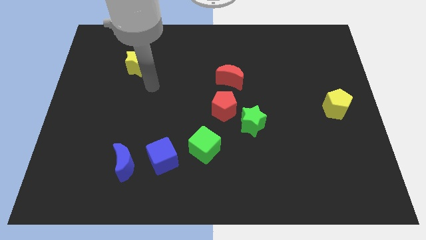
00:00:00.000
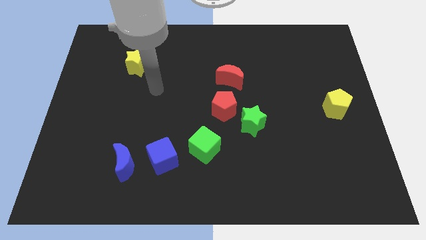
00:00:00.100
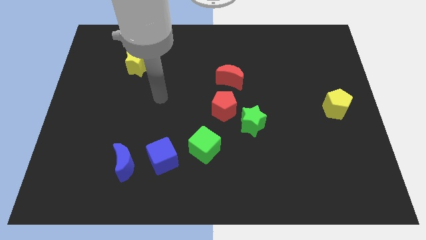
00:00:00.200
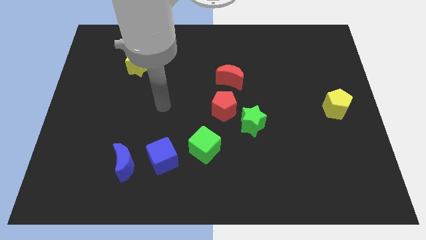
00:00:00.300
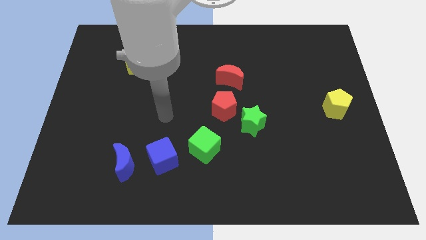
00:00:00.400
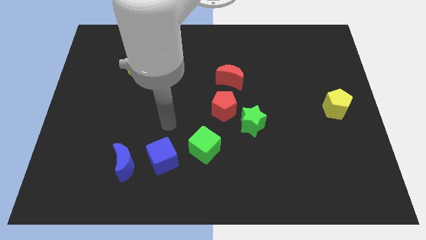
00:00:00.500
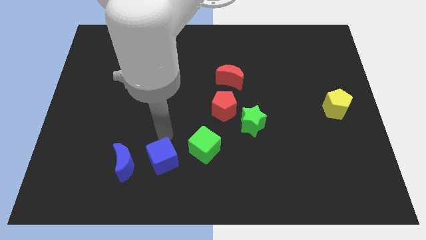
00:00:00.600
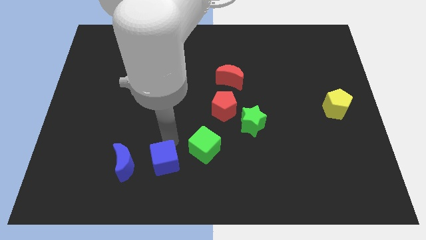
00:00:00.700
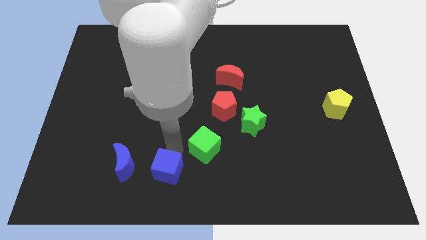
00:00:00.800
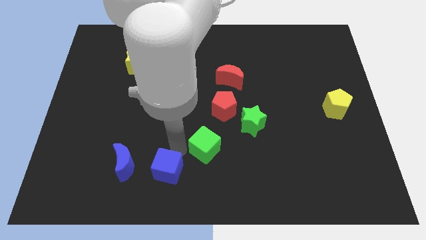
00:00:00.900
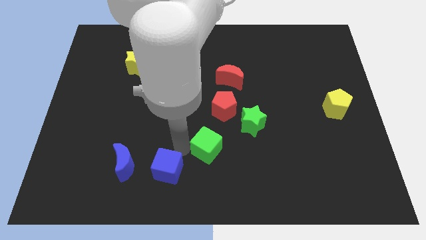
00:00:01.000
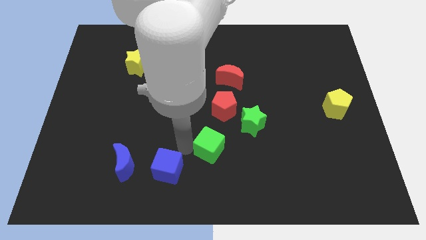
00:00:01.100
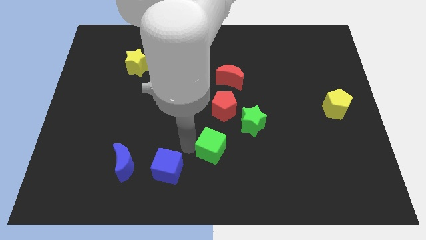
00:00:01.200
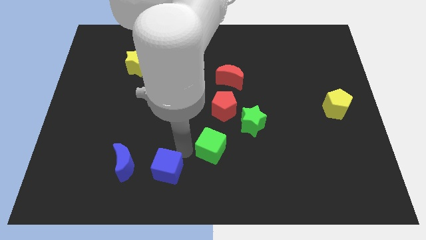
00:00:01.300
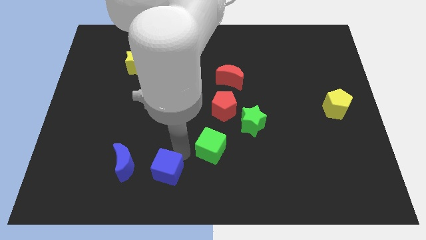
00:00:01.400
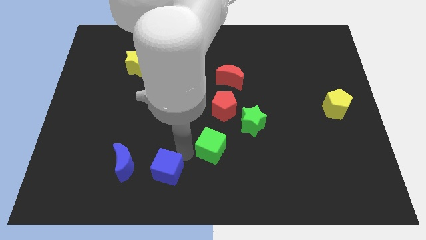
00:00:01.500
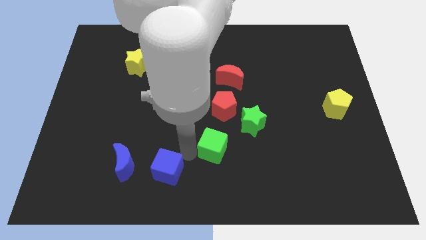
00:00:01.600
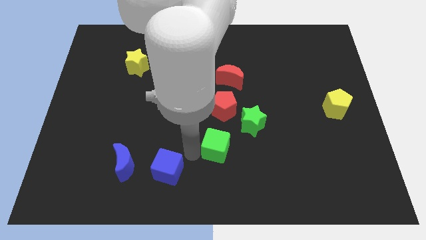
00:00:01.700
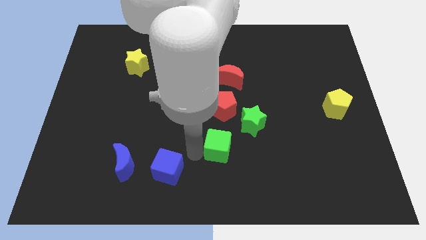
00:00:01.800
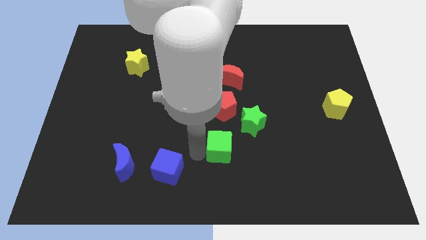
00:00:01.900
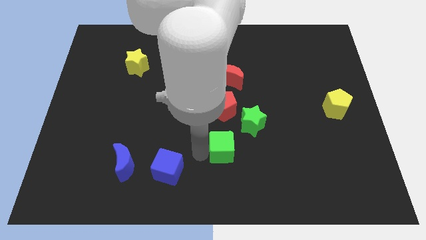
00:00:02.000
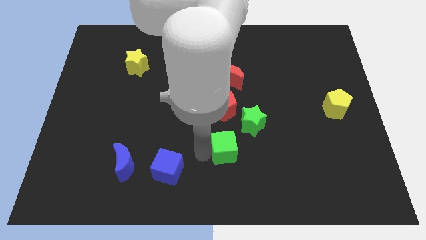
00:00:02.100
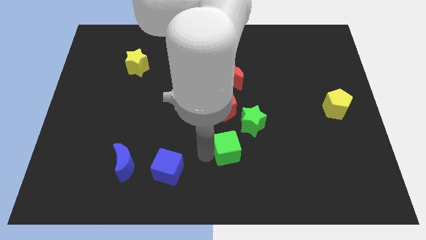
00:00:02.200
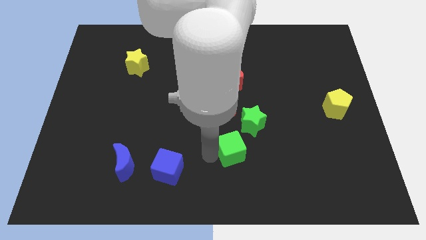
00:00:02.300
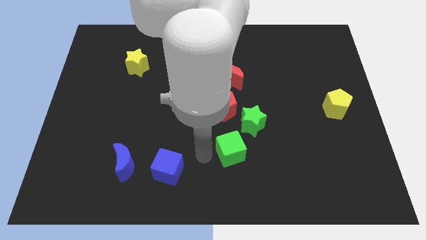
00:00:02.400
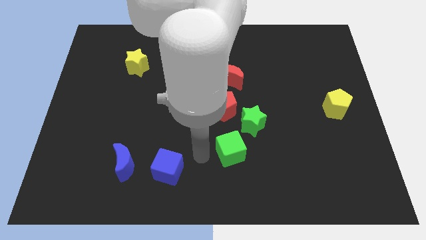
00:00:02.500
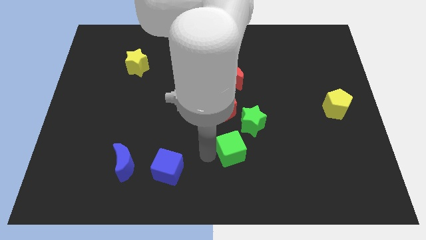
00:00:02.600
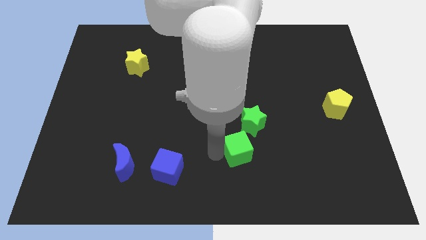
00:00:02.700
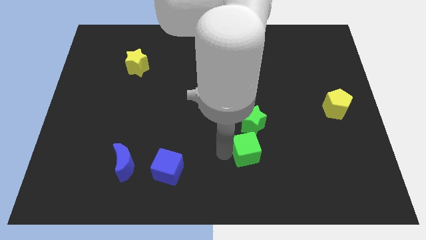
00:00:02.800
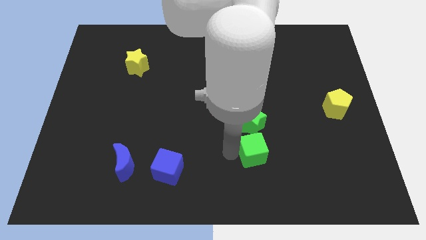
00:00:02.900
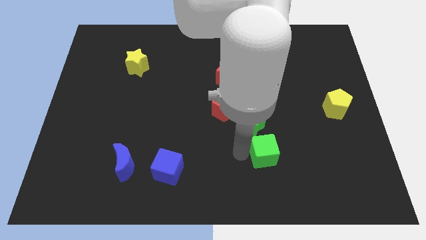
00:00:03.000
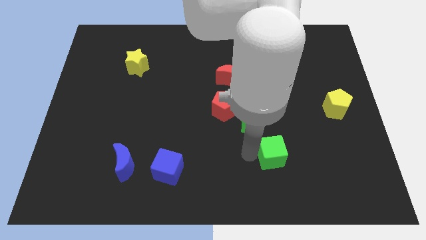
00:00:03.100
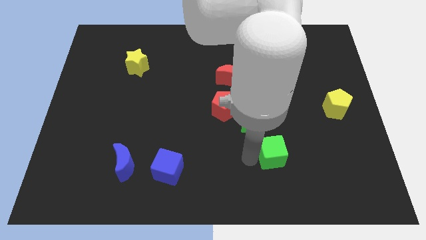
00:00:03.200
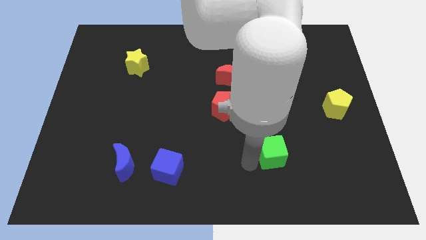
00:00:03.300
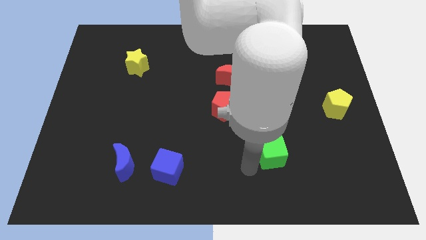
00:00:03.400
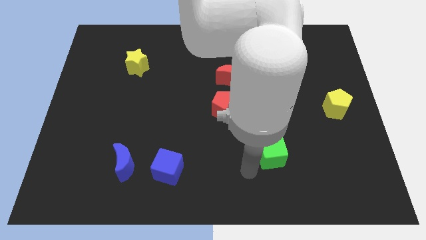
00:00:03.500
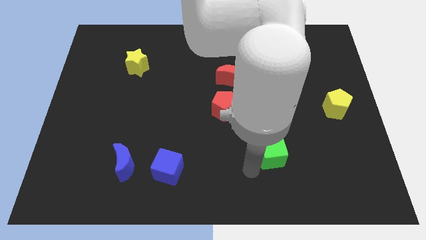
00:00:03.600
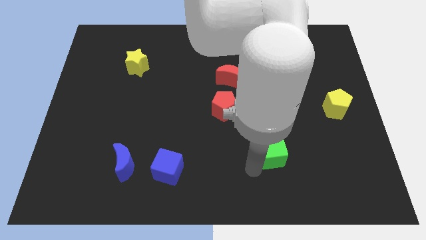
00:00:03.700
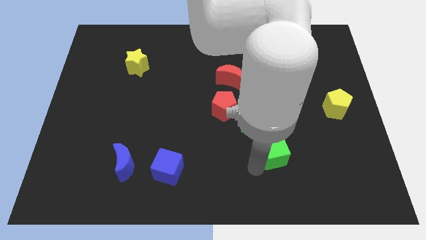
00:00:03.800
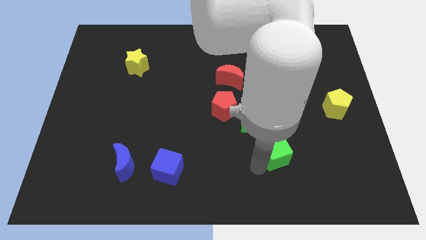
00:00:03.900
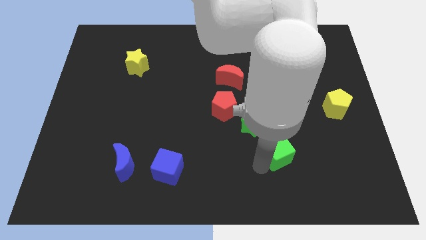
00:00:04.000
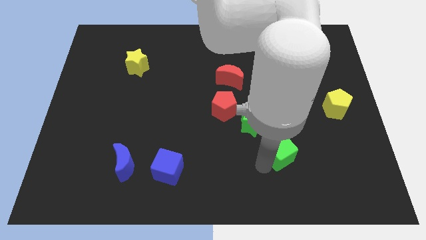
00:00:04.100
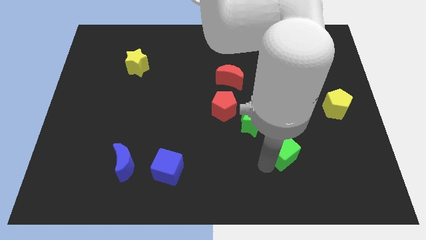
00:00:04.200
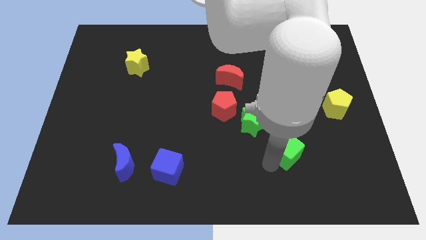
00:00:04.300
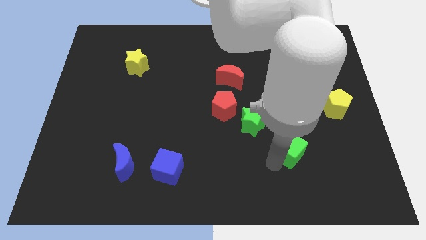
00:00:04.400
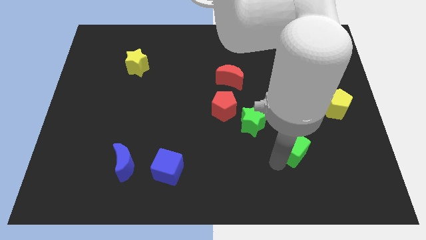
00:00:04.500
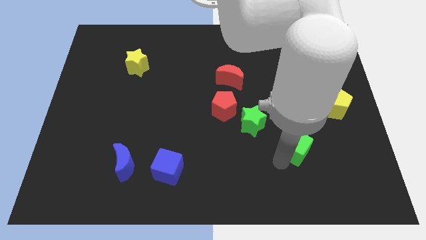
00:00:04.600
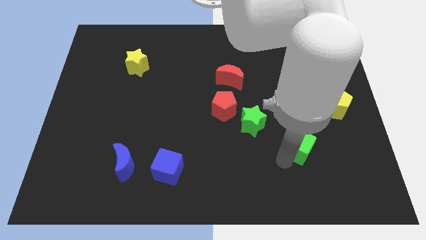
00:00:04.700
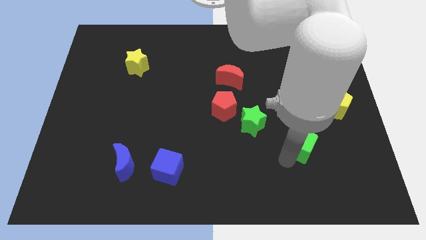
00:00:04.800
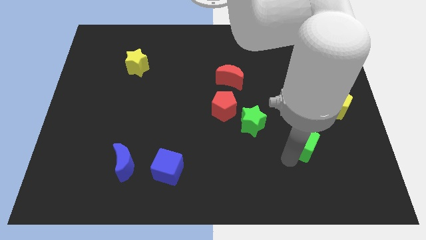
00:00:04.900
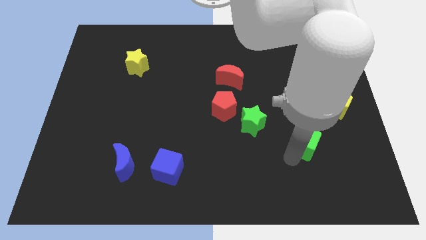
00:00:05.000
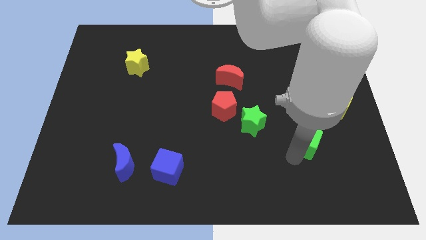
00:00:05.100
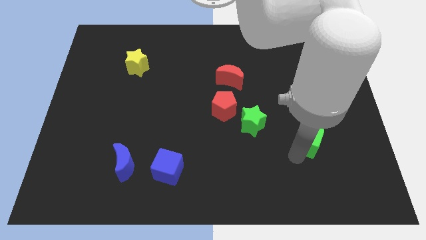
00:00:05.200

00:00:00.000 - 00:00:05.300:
push the green cube diagonally down and to the left of the yellow pentagon

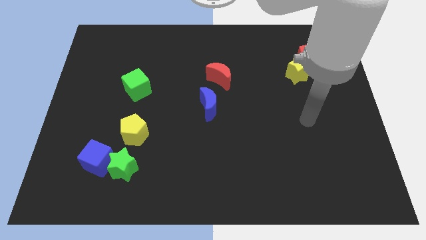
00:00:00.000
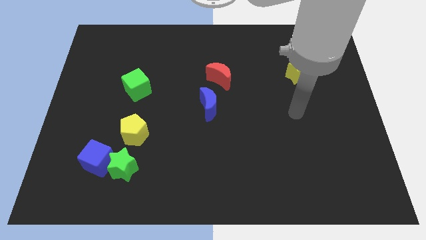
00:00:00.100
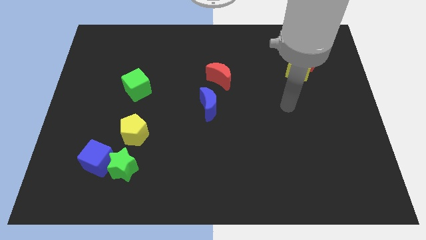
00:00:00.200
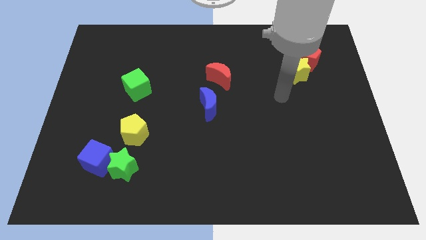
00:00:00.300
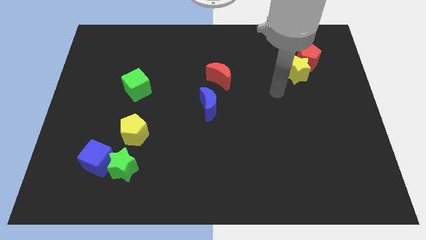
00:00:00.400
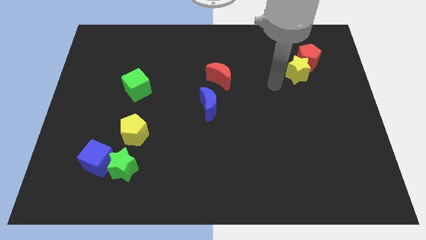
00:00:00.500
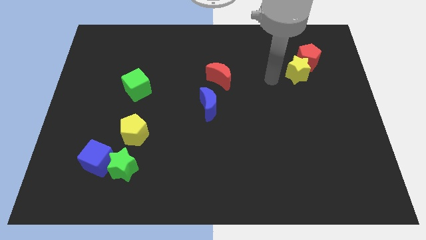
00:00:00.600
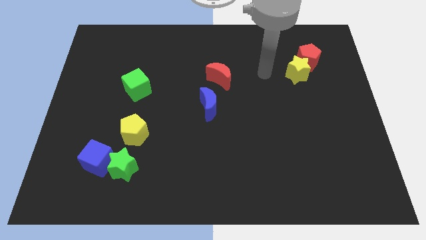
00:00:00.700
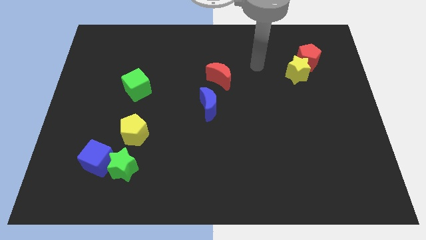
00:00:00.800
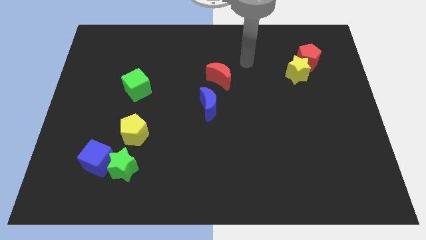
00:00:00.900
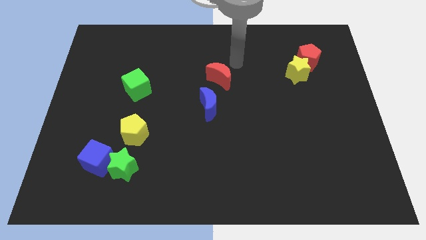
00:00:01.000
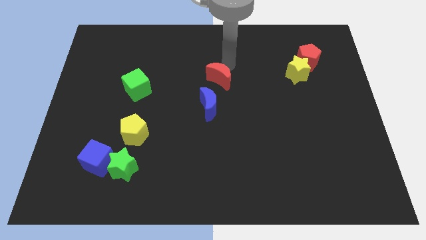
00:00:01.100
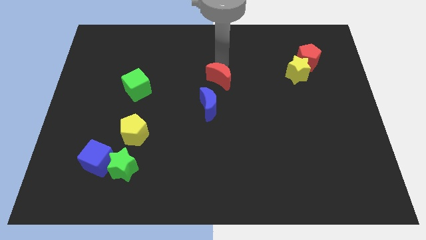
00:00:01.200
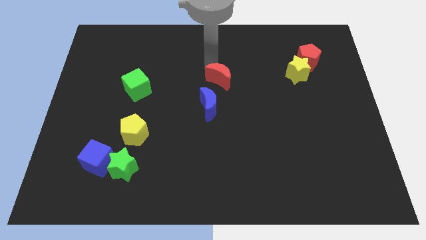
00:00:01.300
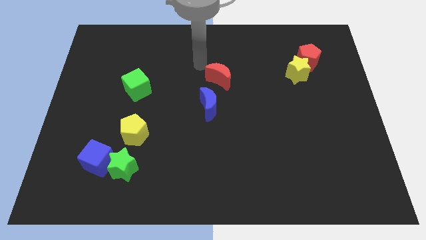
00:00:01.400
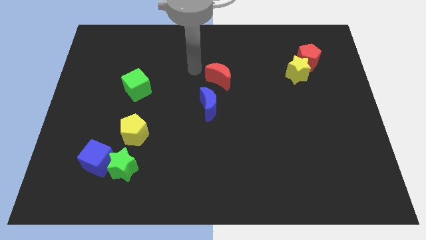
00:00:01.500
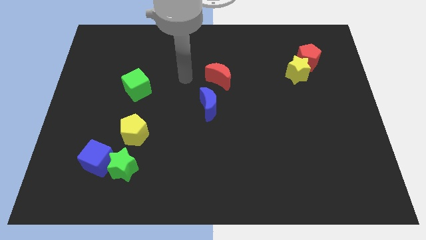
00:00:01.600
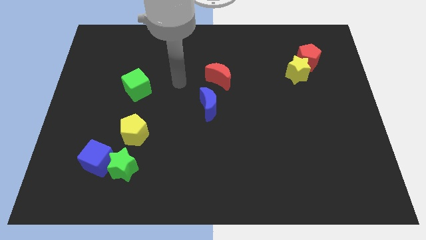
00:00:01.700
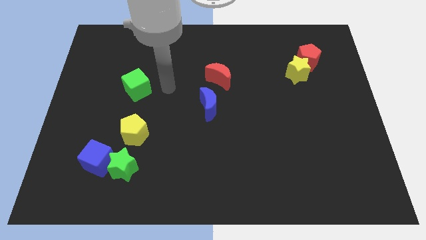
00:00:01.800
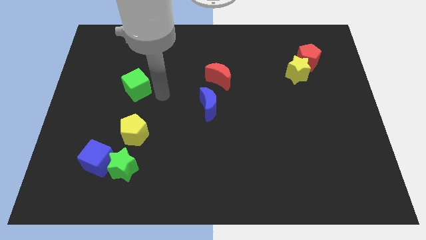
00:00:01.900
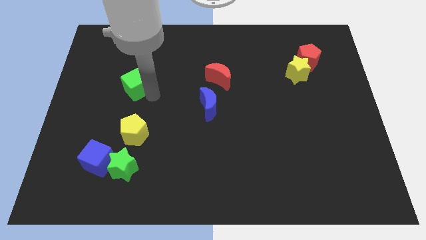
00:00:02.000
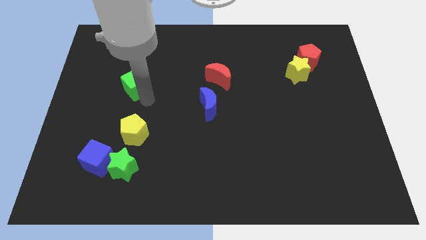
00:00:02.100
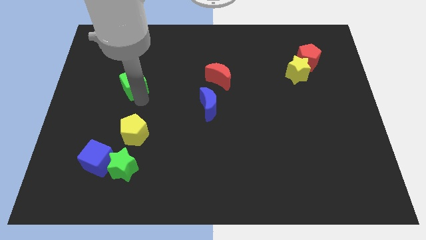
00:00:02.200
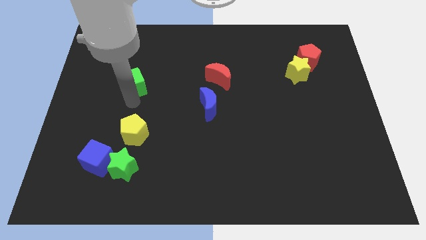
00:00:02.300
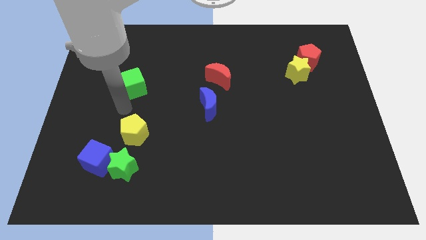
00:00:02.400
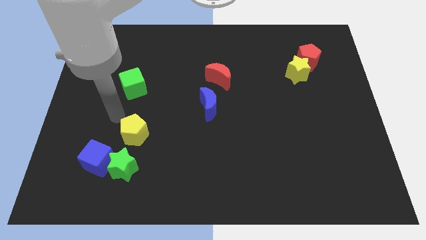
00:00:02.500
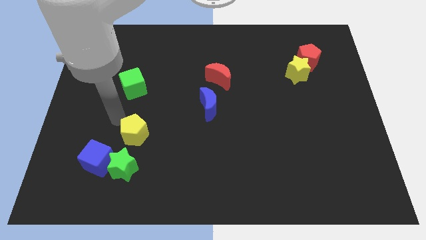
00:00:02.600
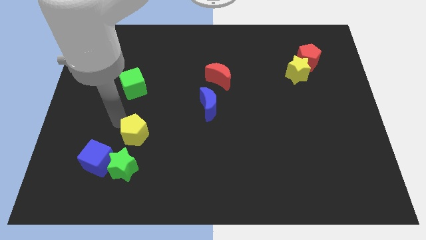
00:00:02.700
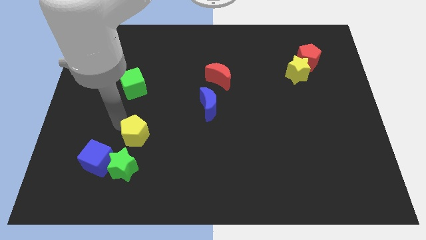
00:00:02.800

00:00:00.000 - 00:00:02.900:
put the yellow pentagon to the top right side of the green star
